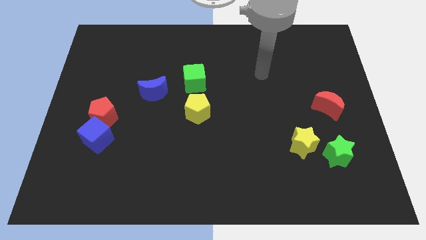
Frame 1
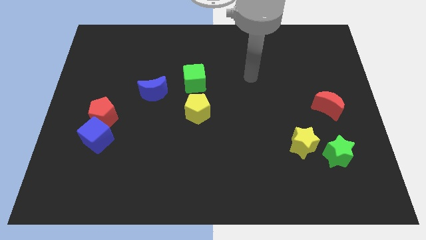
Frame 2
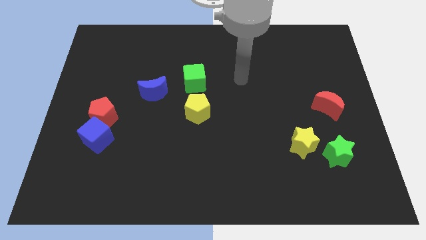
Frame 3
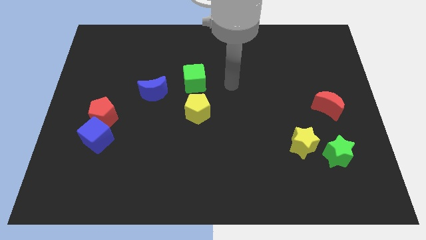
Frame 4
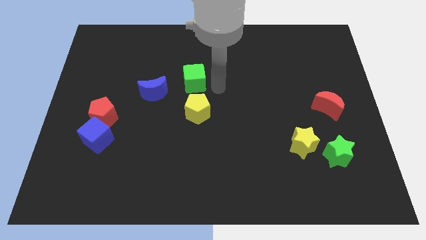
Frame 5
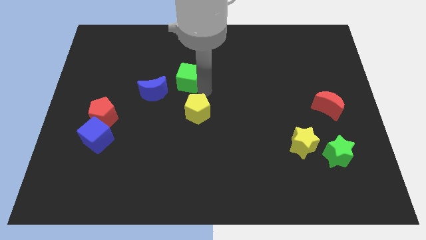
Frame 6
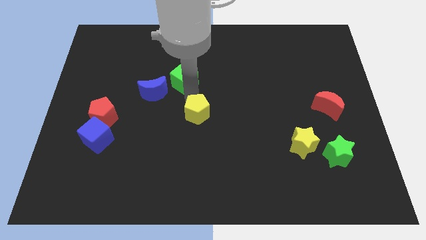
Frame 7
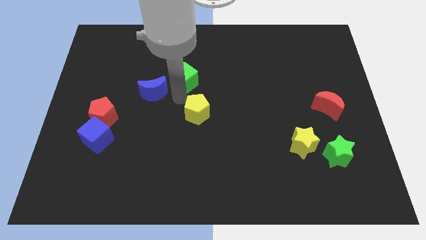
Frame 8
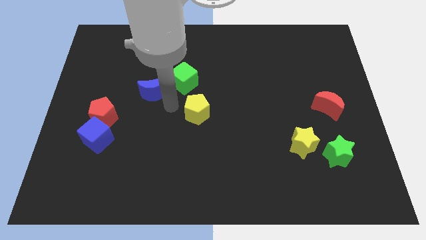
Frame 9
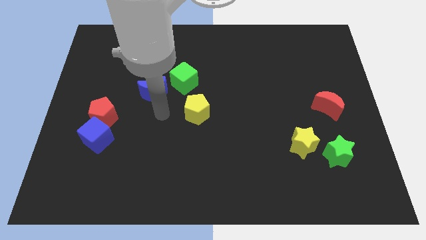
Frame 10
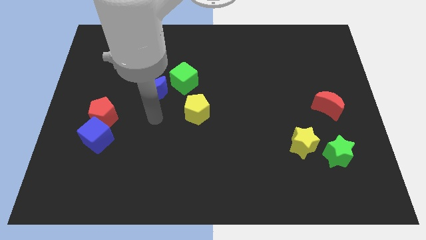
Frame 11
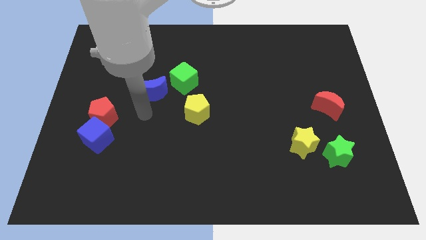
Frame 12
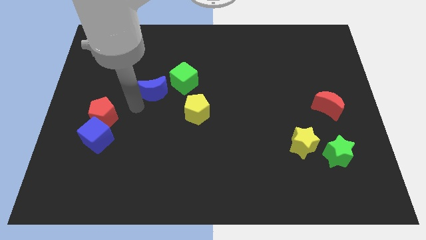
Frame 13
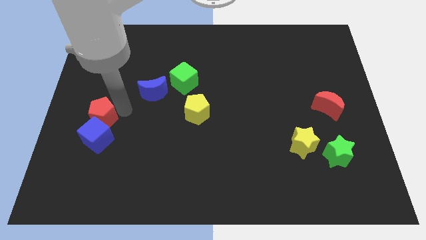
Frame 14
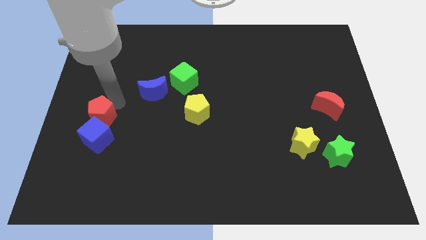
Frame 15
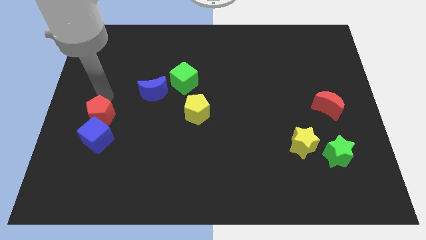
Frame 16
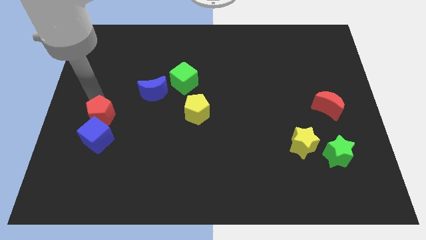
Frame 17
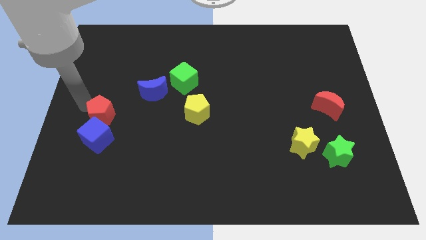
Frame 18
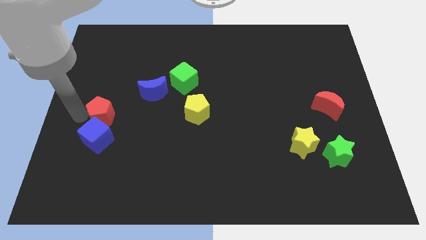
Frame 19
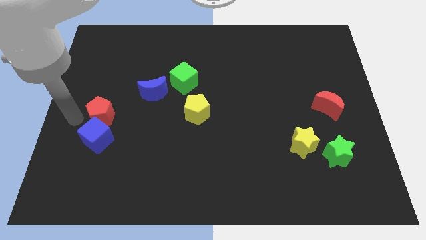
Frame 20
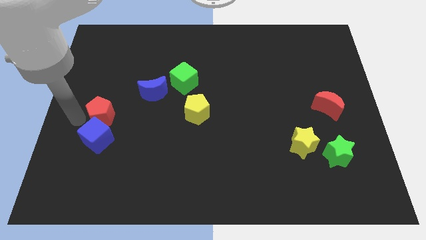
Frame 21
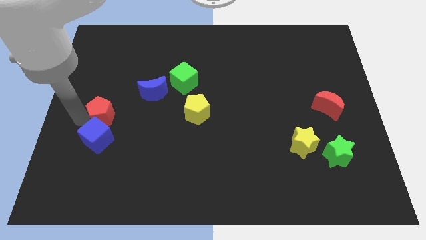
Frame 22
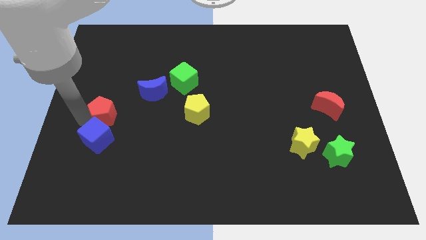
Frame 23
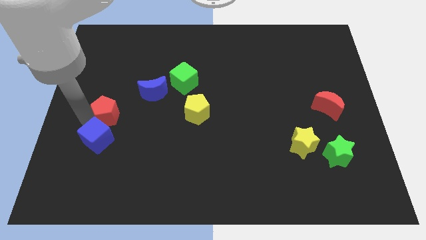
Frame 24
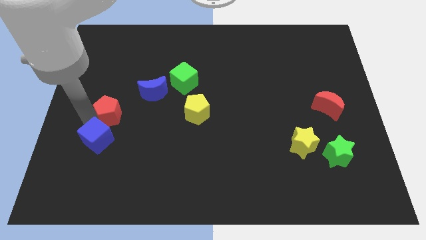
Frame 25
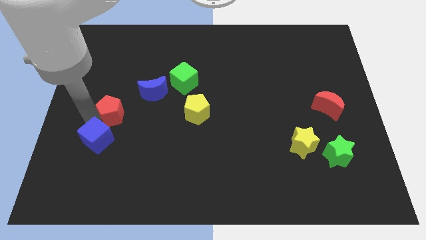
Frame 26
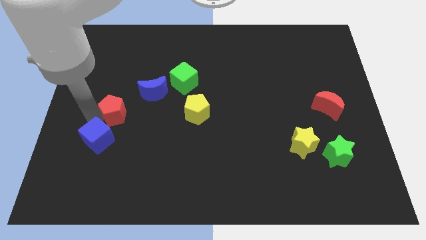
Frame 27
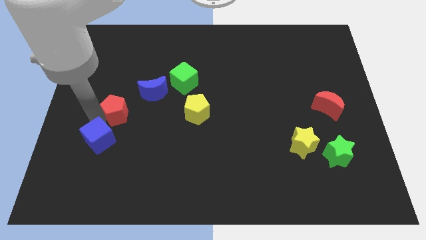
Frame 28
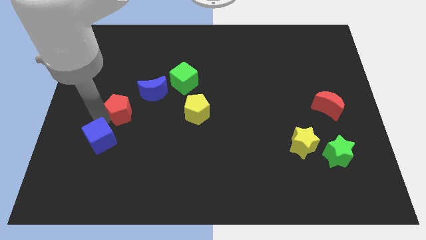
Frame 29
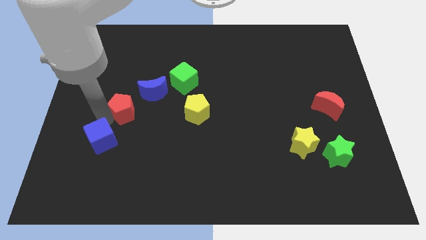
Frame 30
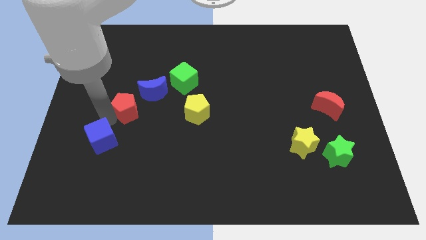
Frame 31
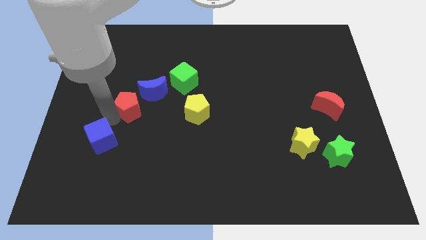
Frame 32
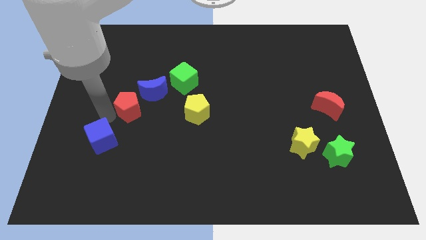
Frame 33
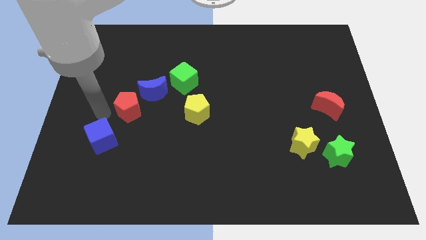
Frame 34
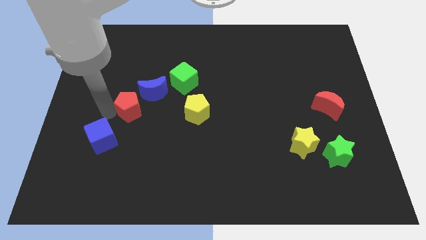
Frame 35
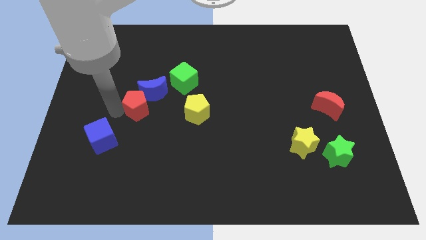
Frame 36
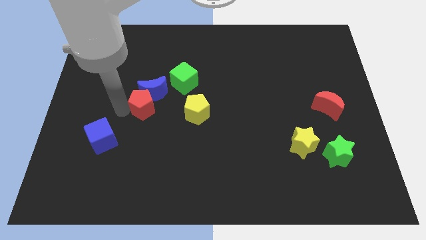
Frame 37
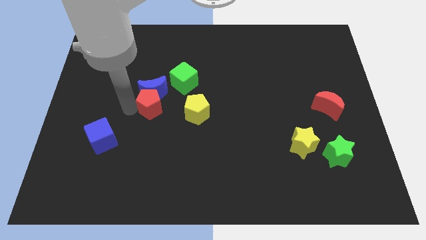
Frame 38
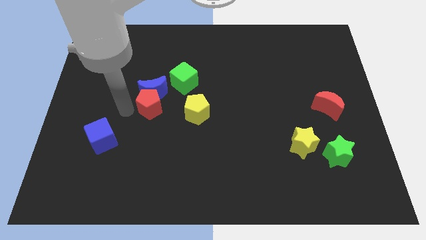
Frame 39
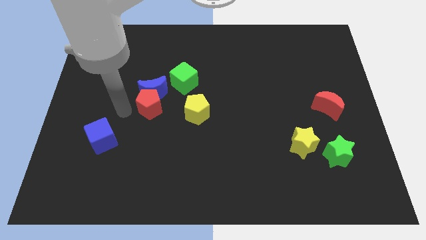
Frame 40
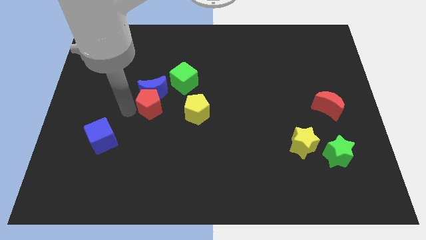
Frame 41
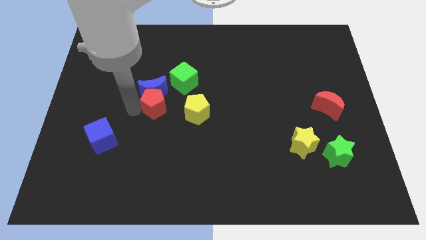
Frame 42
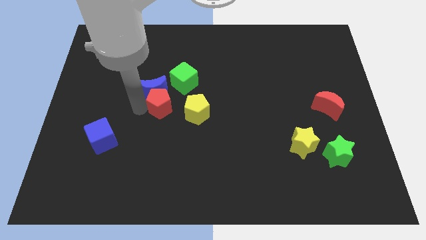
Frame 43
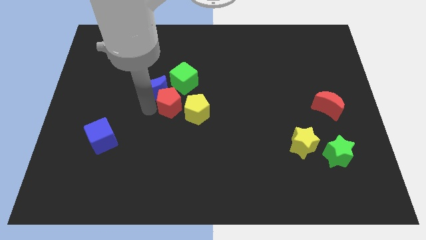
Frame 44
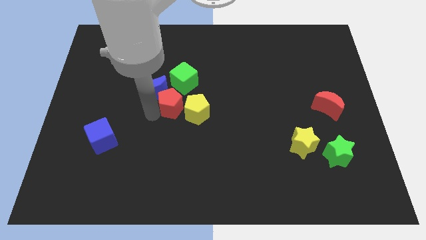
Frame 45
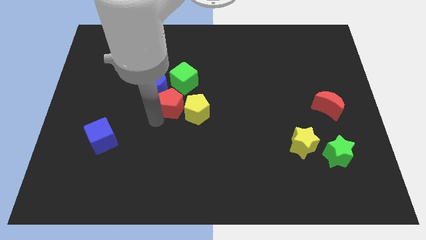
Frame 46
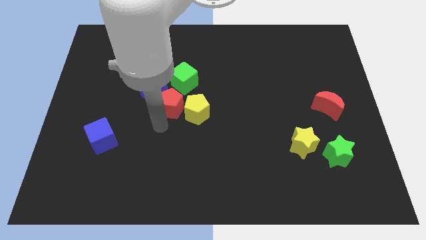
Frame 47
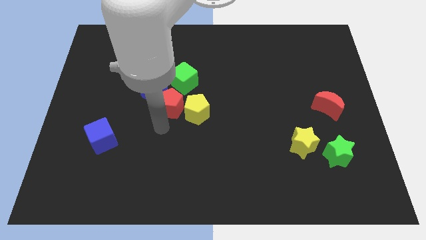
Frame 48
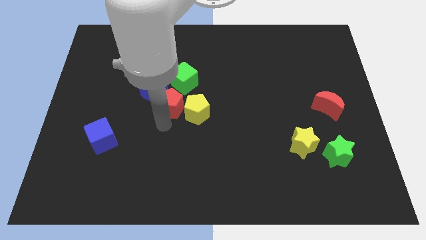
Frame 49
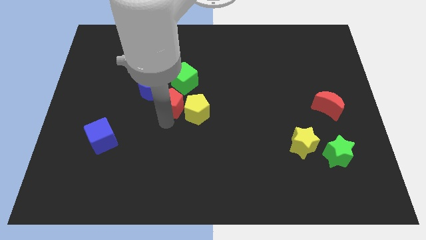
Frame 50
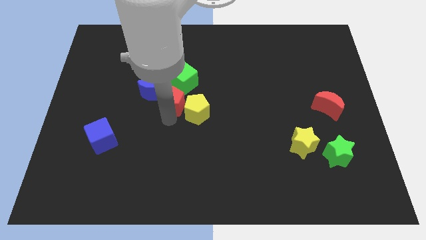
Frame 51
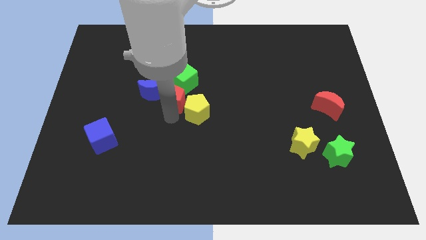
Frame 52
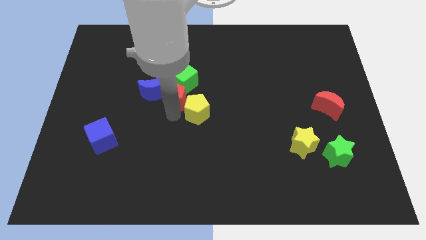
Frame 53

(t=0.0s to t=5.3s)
move the red pentagon close to the green cube

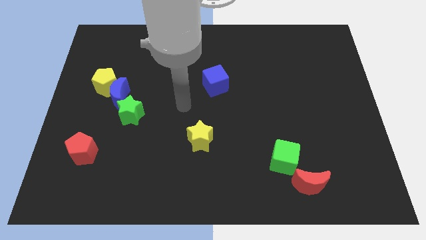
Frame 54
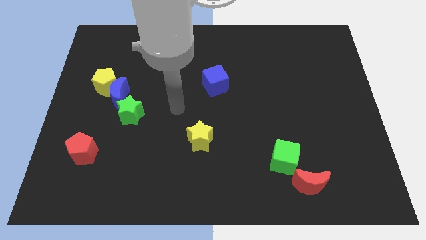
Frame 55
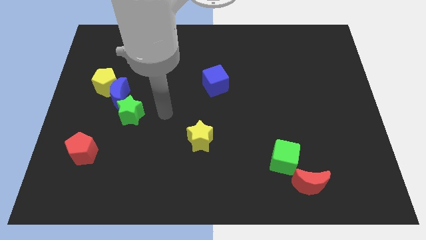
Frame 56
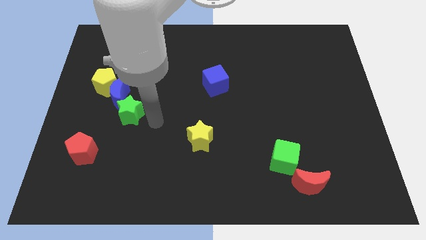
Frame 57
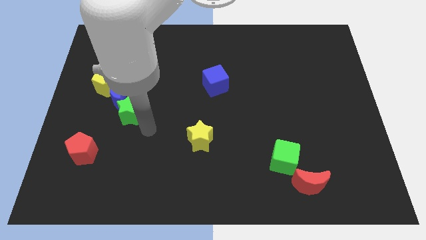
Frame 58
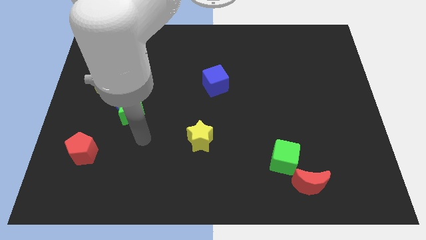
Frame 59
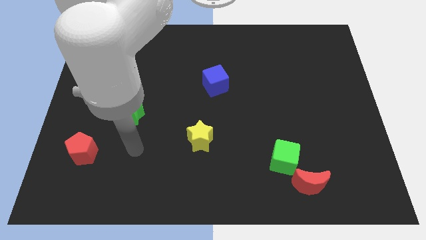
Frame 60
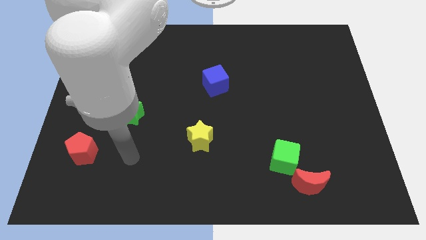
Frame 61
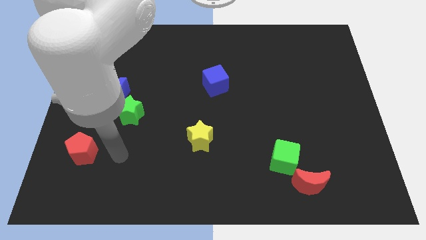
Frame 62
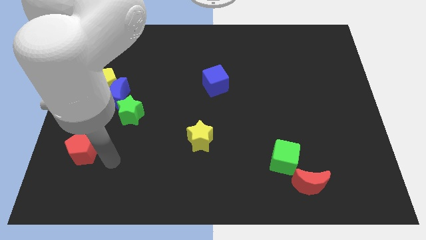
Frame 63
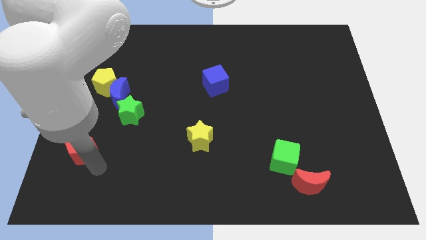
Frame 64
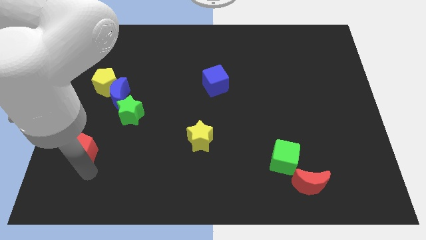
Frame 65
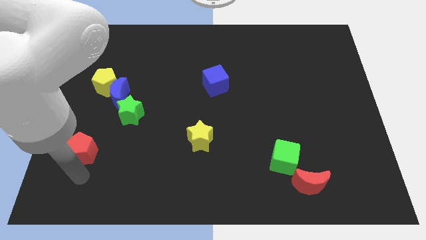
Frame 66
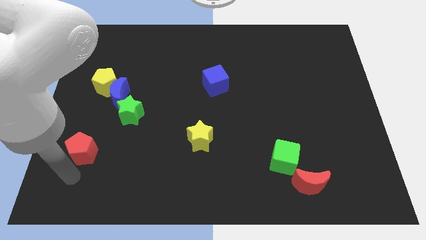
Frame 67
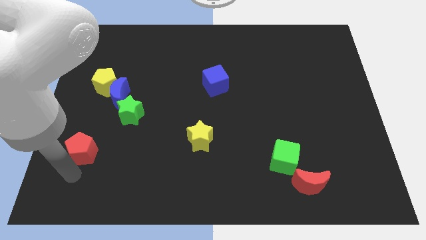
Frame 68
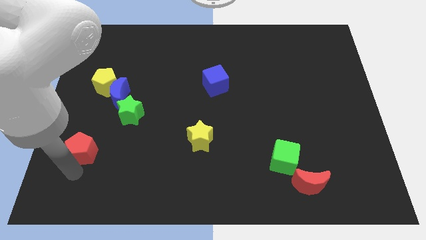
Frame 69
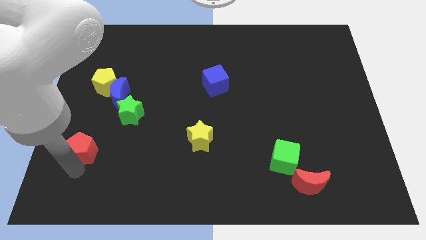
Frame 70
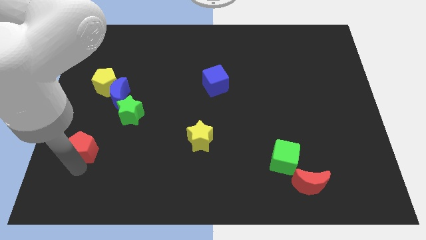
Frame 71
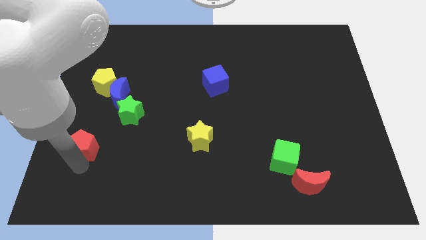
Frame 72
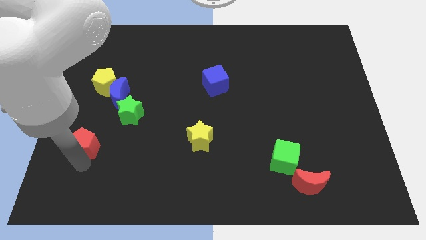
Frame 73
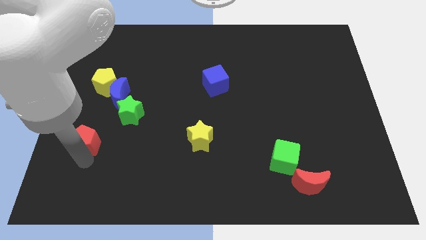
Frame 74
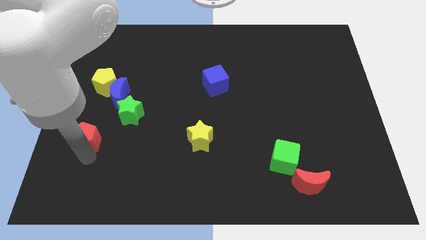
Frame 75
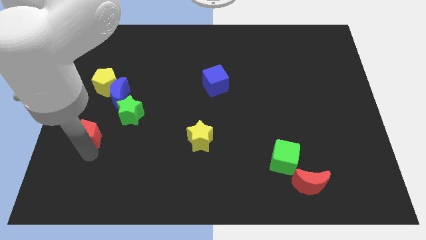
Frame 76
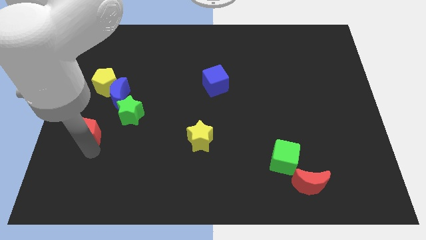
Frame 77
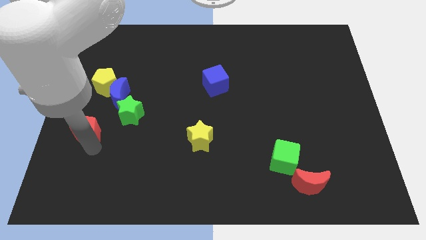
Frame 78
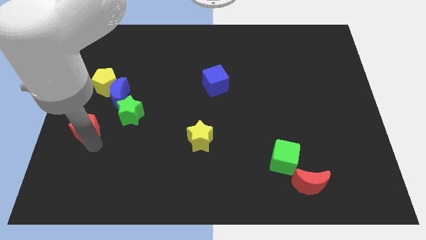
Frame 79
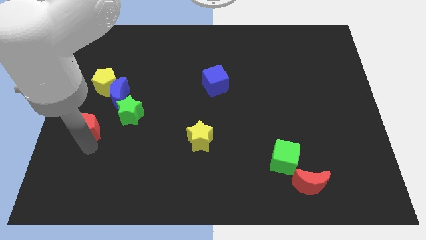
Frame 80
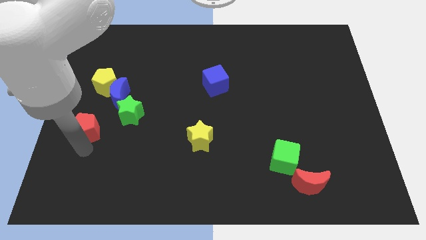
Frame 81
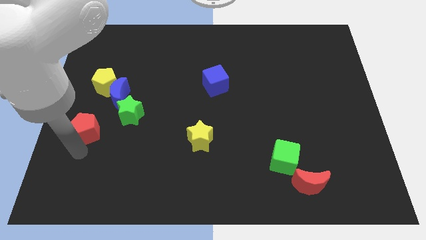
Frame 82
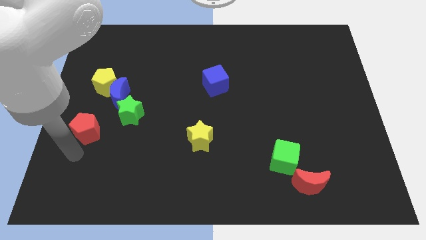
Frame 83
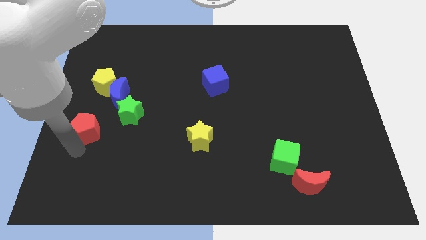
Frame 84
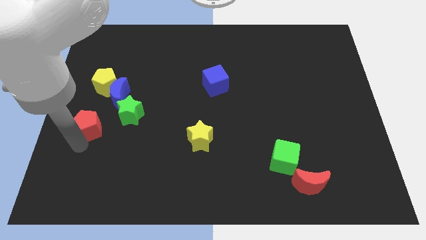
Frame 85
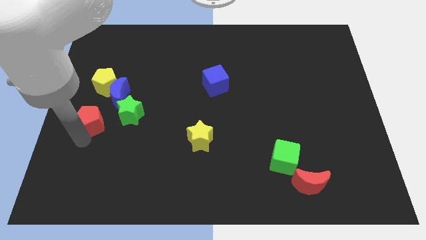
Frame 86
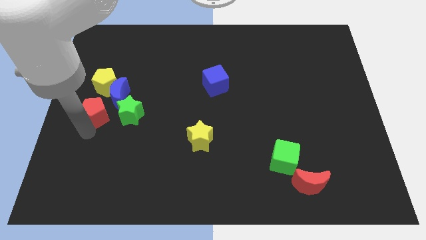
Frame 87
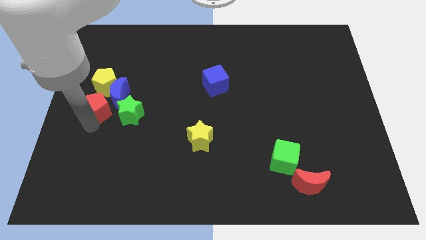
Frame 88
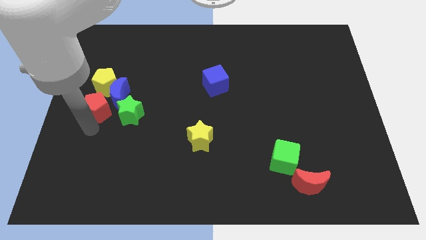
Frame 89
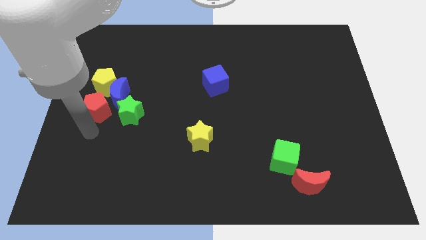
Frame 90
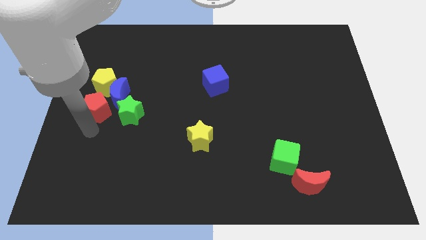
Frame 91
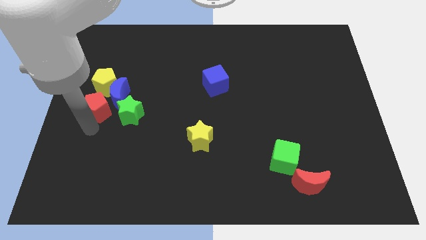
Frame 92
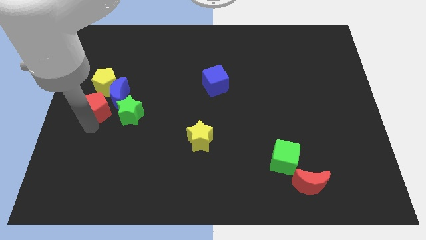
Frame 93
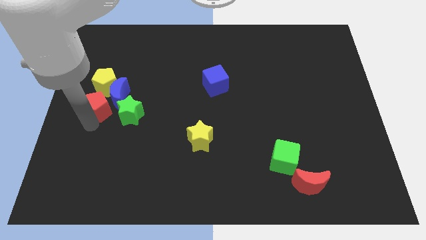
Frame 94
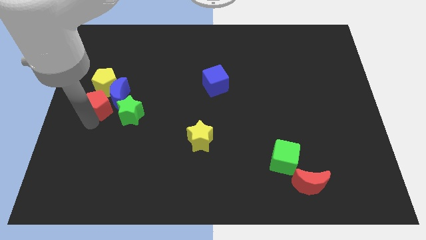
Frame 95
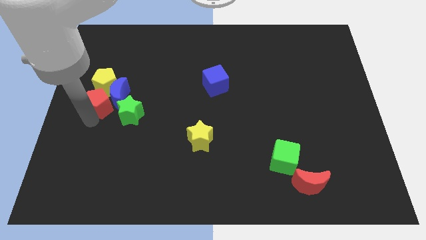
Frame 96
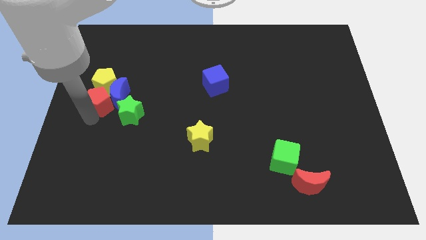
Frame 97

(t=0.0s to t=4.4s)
put the red pentagon close to the yellow pentagon
